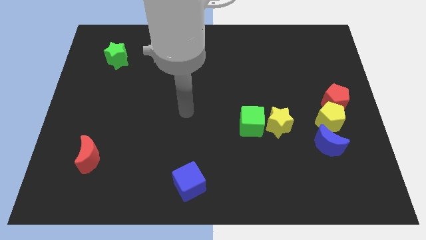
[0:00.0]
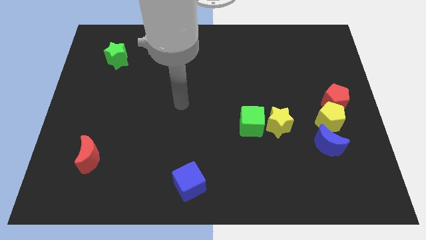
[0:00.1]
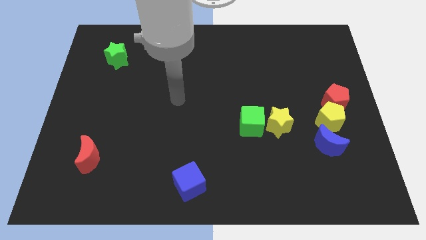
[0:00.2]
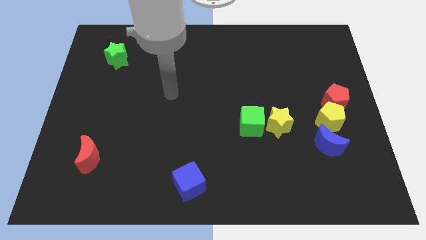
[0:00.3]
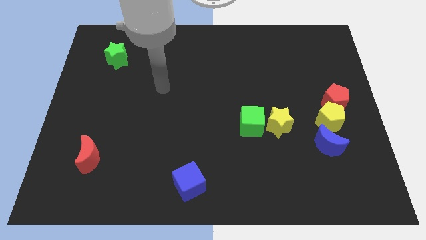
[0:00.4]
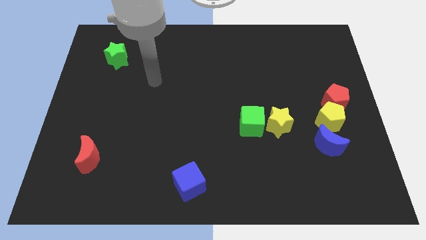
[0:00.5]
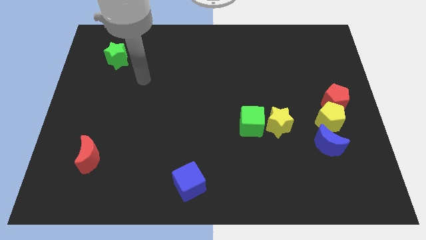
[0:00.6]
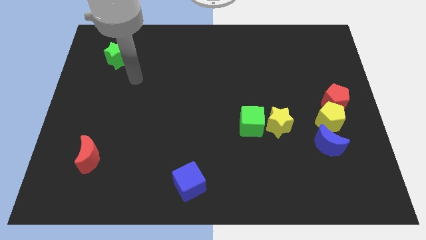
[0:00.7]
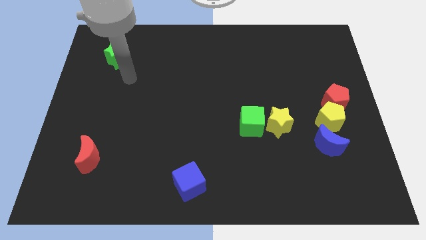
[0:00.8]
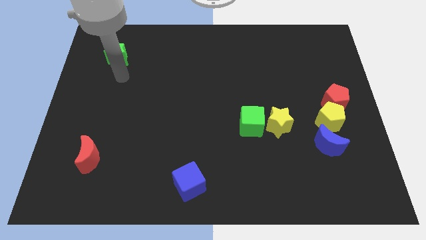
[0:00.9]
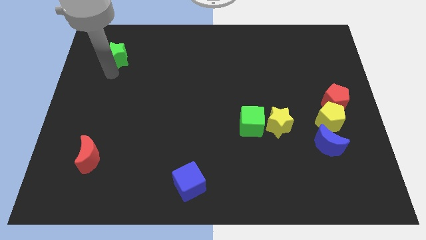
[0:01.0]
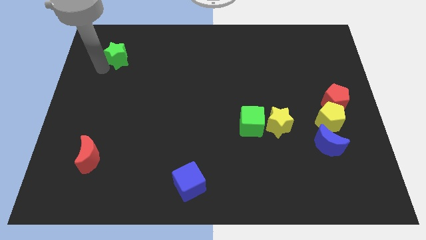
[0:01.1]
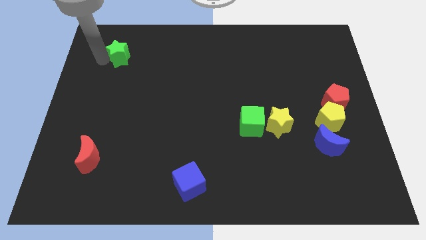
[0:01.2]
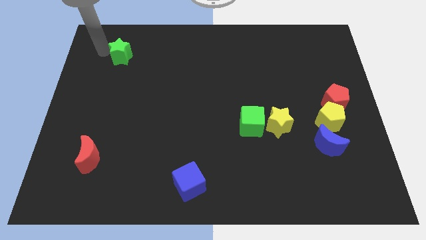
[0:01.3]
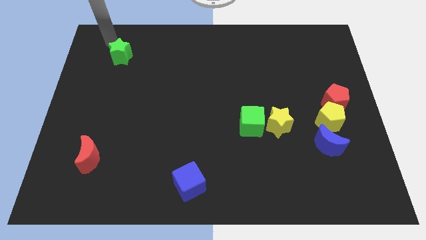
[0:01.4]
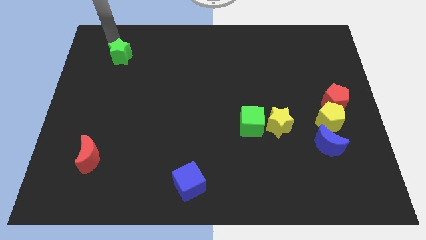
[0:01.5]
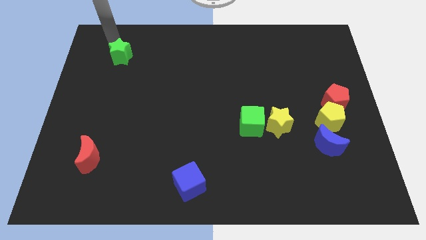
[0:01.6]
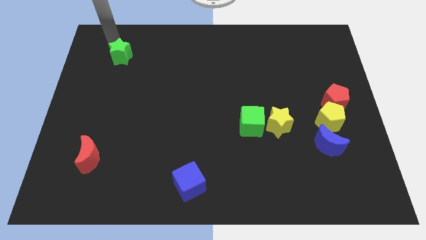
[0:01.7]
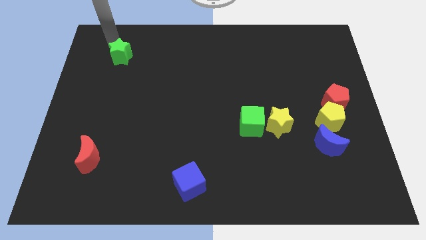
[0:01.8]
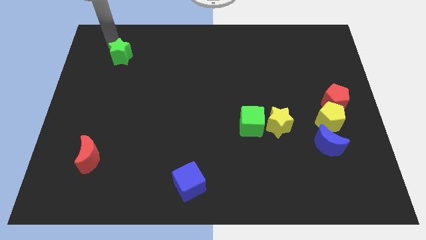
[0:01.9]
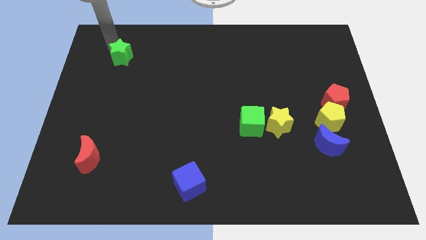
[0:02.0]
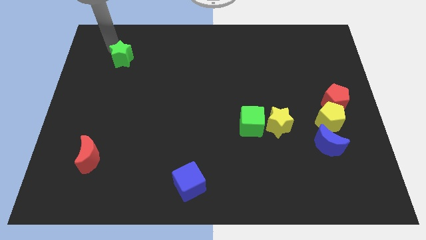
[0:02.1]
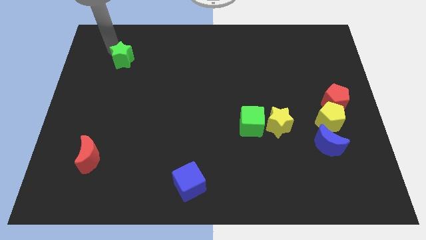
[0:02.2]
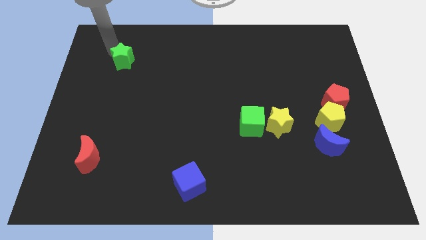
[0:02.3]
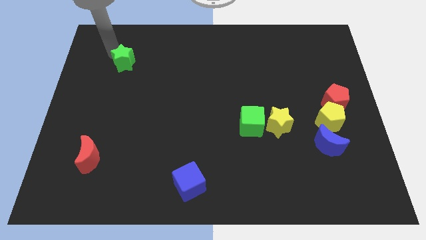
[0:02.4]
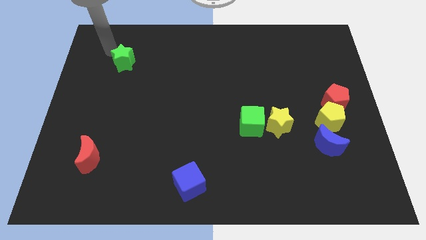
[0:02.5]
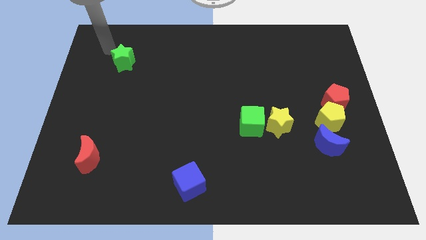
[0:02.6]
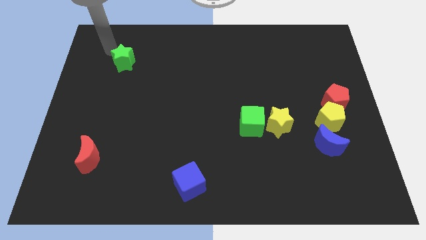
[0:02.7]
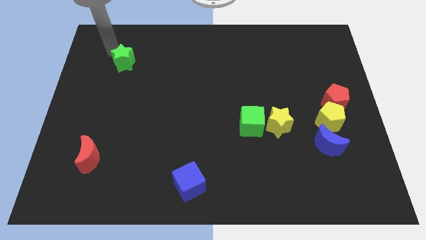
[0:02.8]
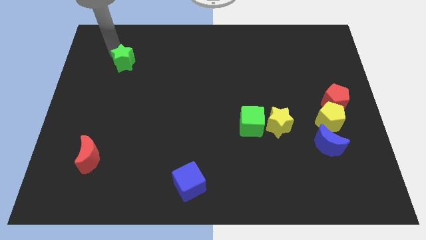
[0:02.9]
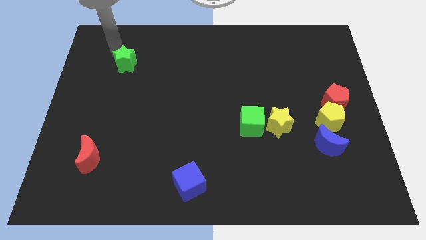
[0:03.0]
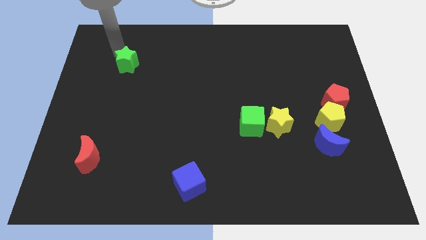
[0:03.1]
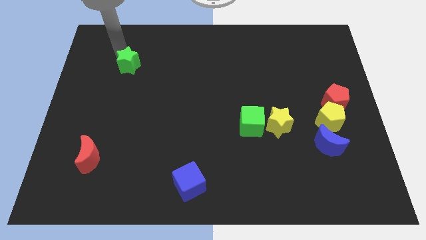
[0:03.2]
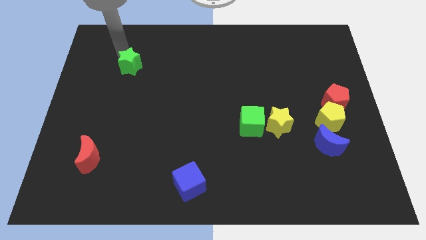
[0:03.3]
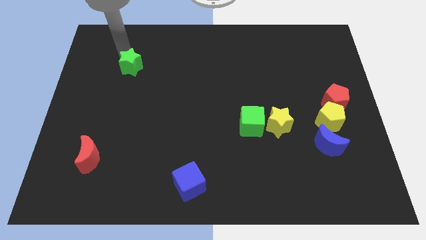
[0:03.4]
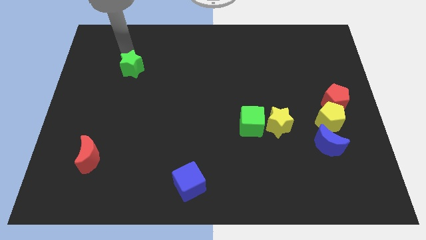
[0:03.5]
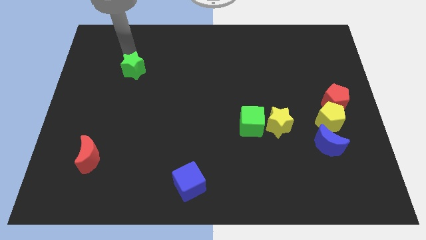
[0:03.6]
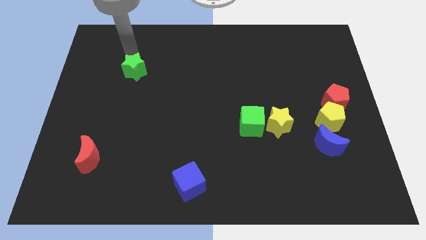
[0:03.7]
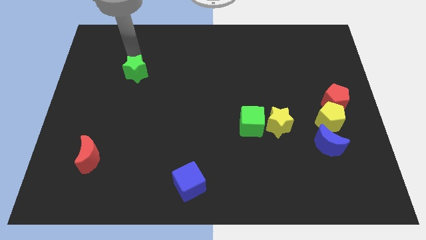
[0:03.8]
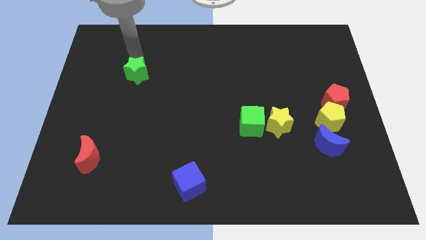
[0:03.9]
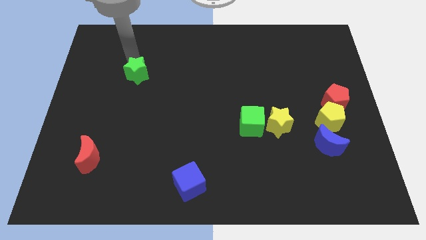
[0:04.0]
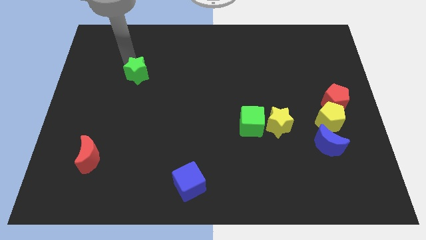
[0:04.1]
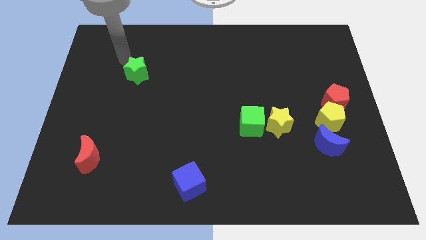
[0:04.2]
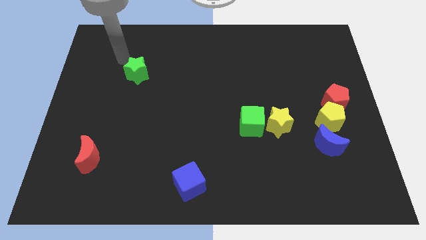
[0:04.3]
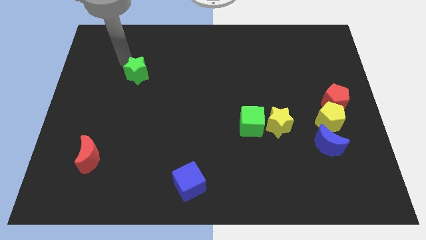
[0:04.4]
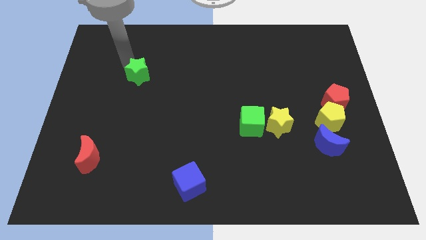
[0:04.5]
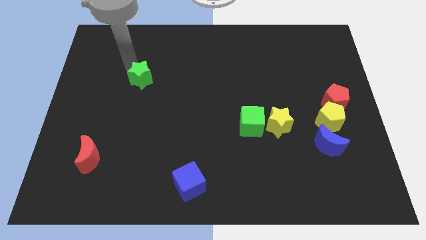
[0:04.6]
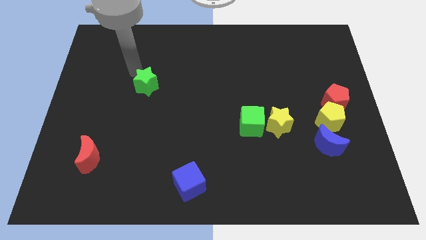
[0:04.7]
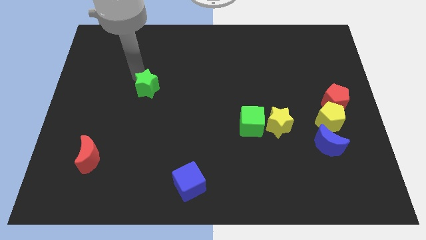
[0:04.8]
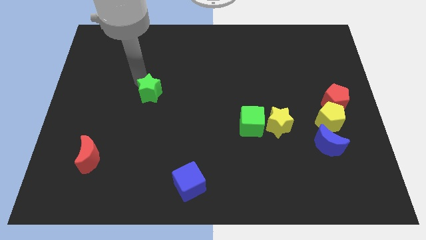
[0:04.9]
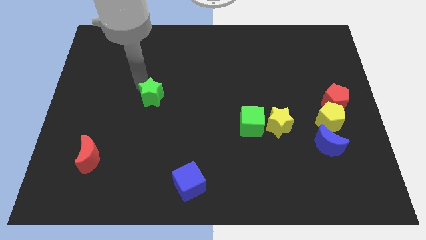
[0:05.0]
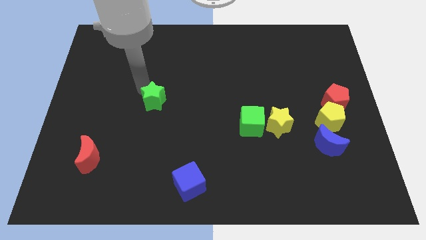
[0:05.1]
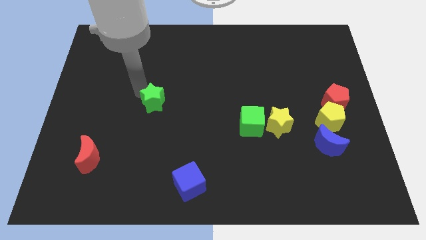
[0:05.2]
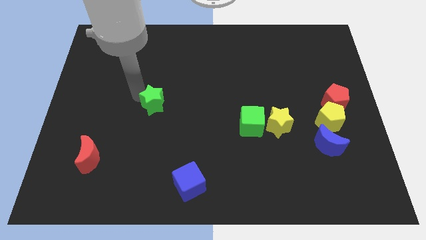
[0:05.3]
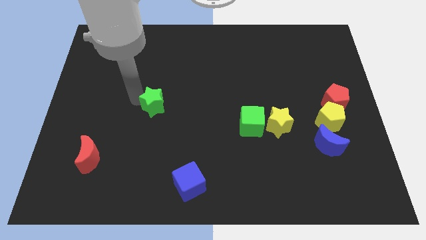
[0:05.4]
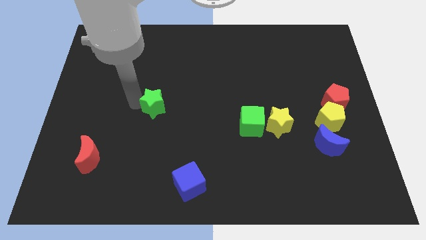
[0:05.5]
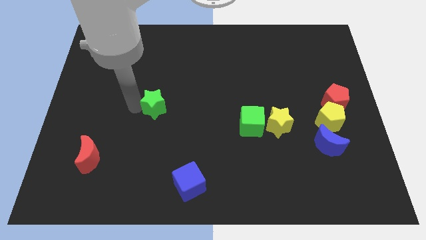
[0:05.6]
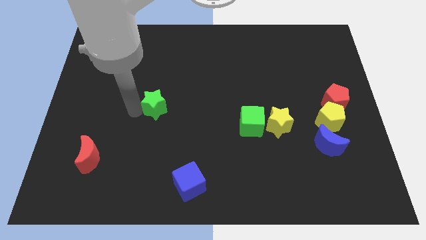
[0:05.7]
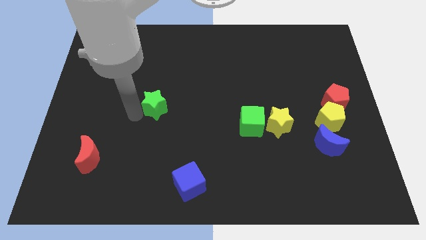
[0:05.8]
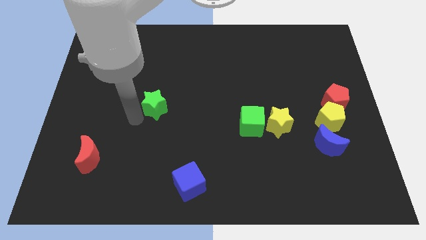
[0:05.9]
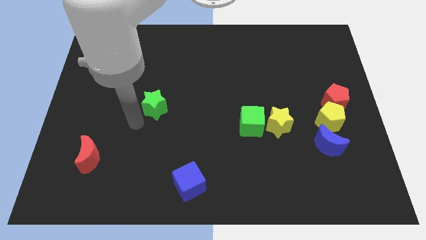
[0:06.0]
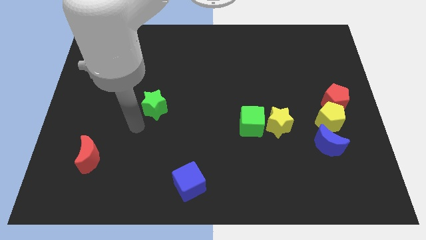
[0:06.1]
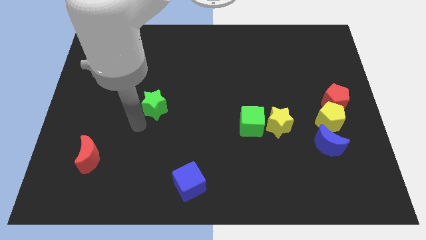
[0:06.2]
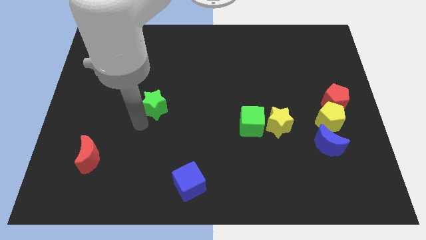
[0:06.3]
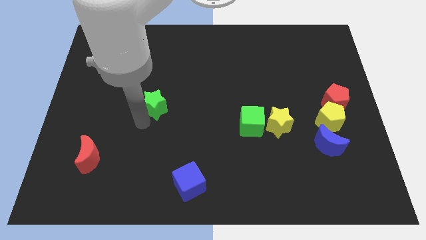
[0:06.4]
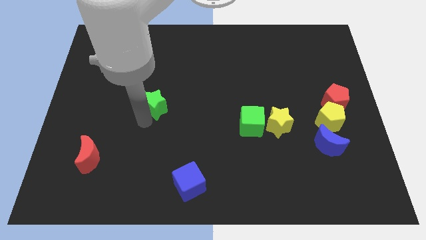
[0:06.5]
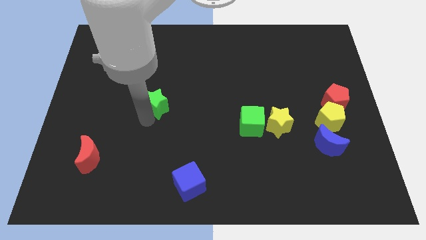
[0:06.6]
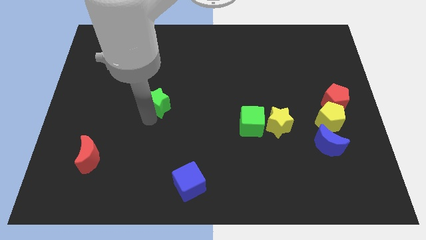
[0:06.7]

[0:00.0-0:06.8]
slide the green star downwards and then to the right

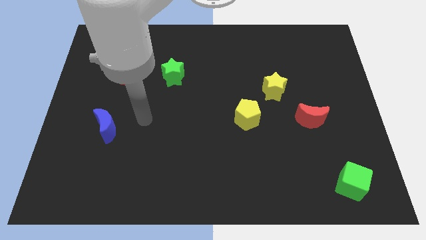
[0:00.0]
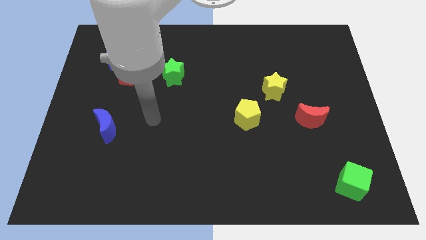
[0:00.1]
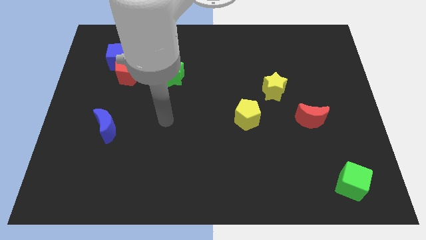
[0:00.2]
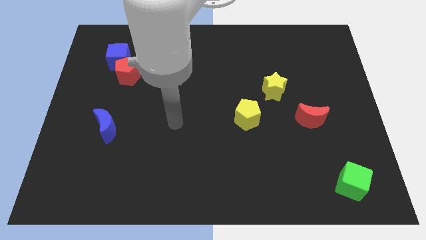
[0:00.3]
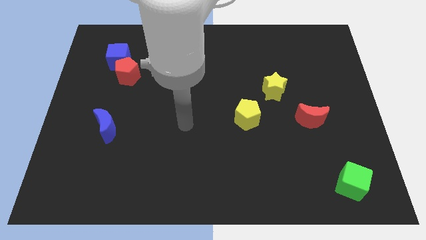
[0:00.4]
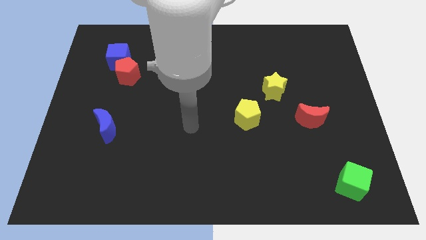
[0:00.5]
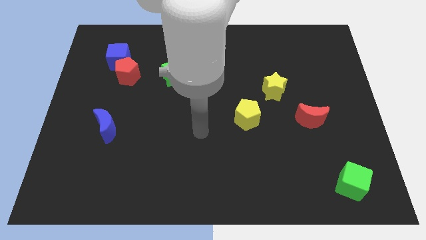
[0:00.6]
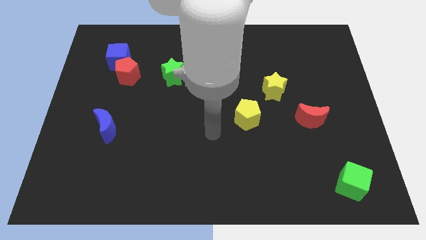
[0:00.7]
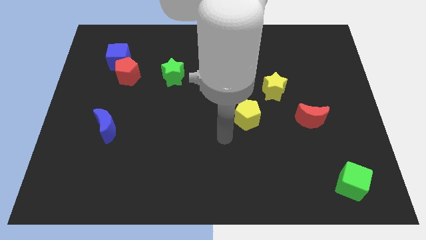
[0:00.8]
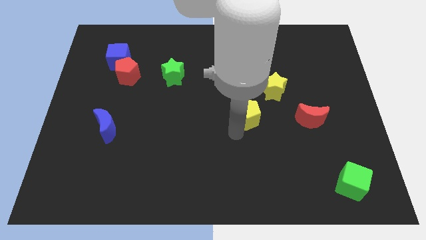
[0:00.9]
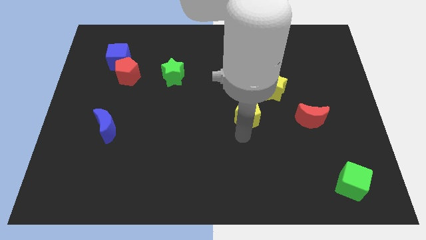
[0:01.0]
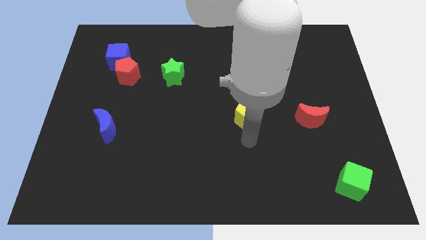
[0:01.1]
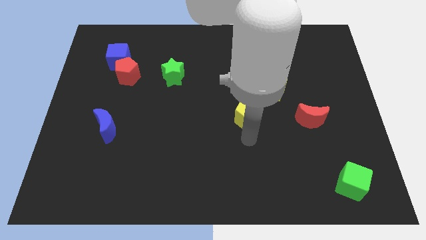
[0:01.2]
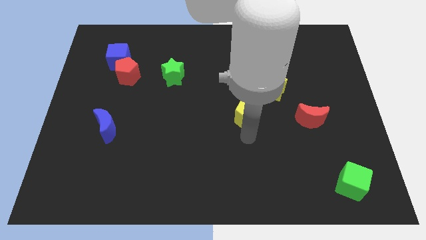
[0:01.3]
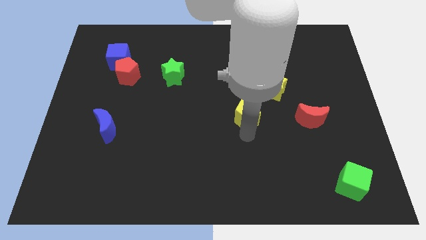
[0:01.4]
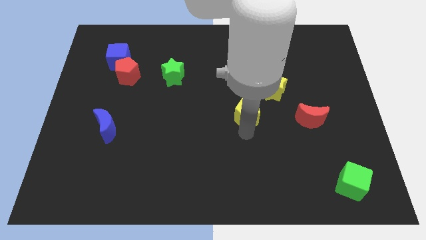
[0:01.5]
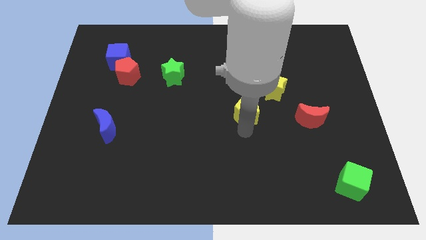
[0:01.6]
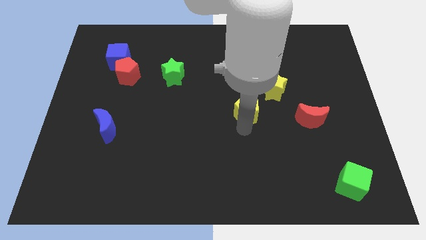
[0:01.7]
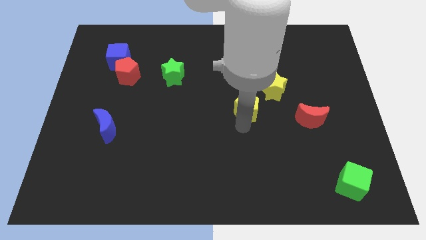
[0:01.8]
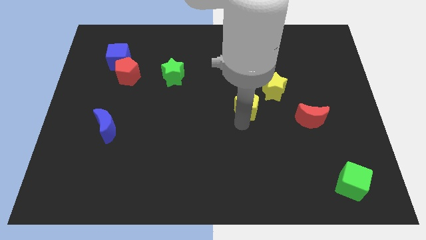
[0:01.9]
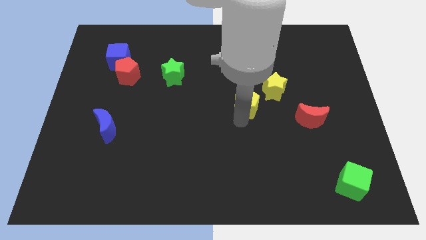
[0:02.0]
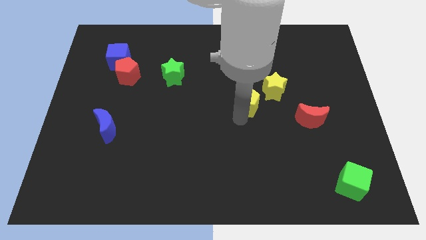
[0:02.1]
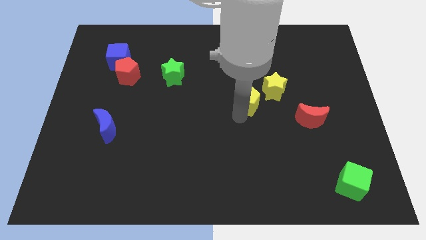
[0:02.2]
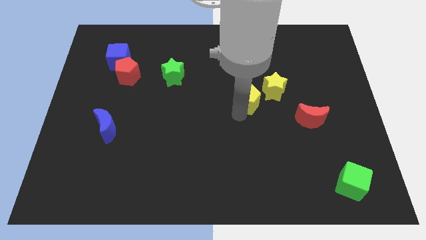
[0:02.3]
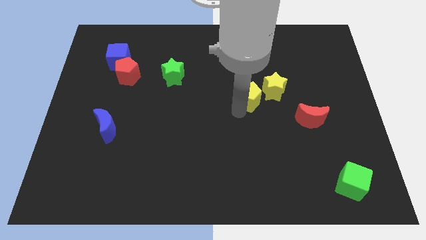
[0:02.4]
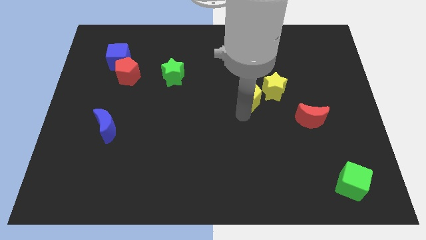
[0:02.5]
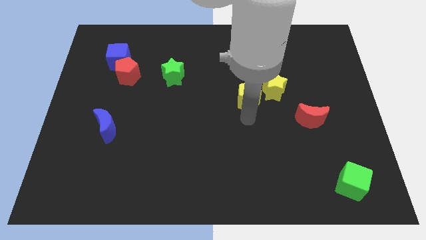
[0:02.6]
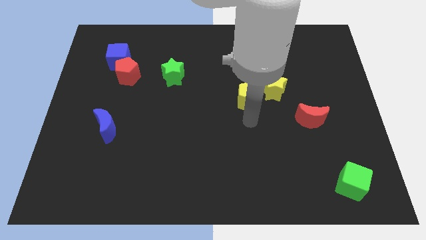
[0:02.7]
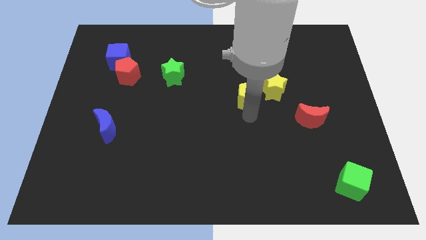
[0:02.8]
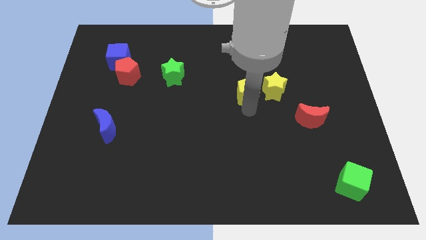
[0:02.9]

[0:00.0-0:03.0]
move the yellow pentagon a little upwards
